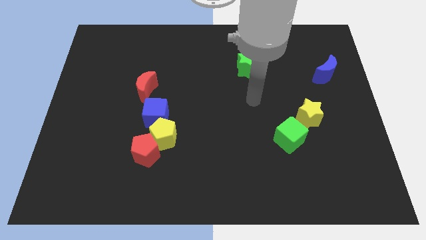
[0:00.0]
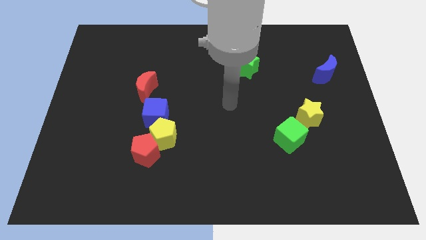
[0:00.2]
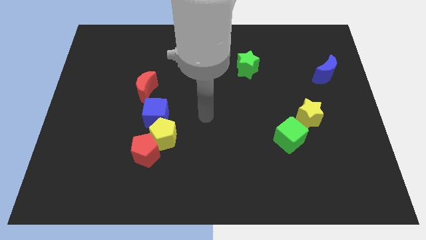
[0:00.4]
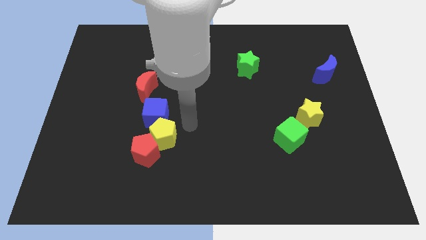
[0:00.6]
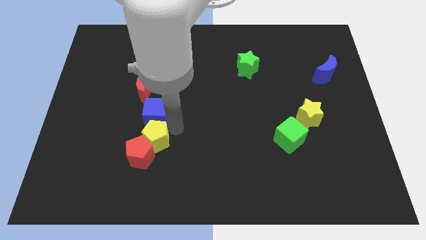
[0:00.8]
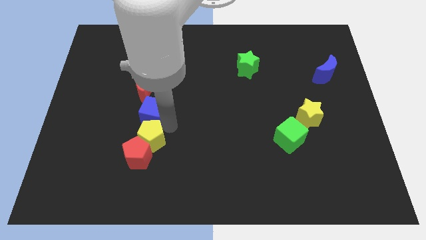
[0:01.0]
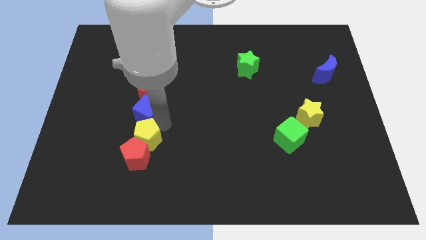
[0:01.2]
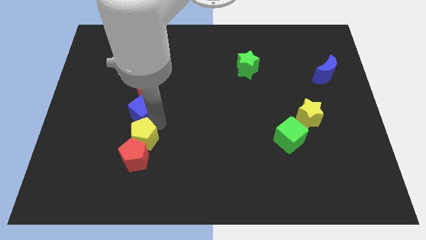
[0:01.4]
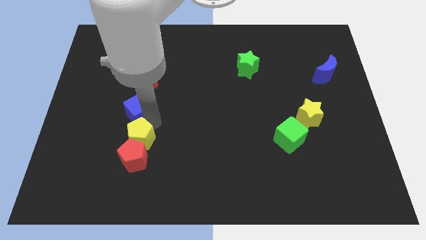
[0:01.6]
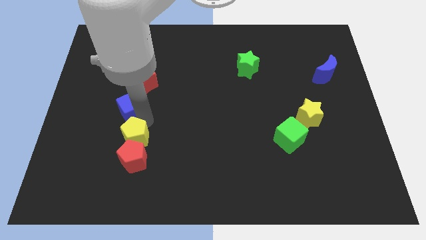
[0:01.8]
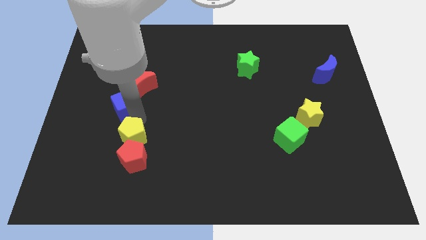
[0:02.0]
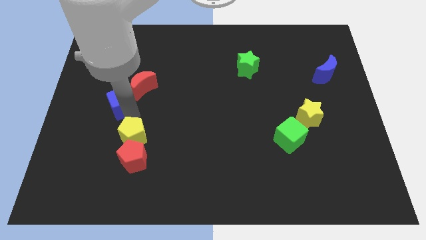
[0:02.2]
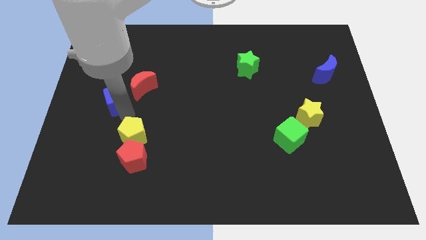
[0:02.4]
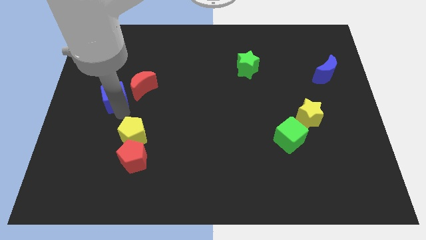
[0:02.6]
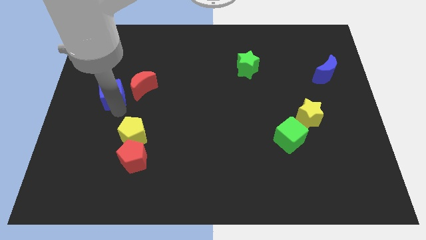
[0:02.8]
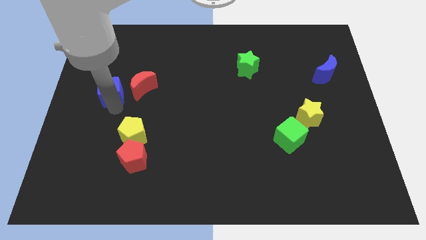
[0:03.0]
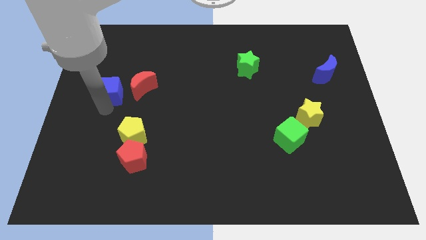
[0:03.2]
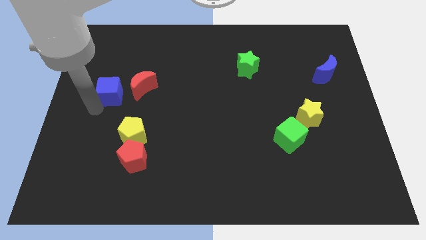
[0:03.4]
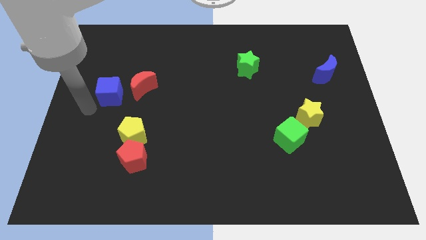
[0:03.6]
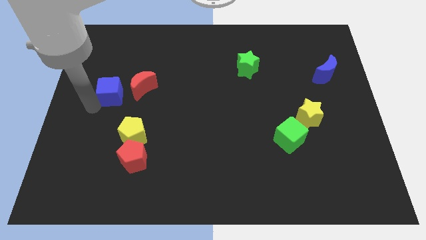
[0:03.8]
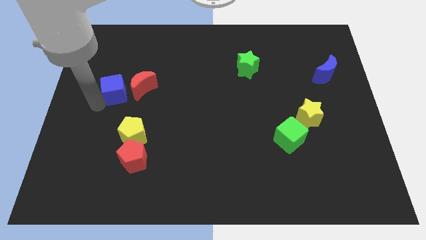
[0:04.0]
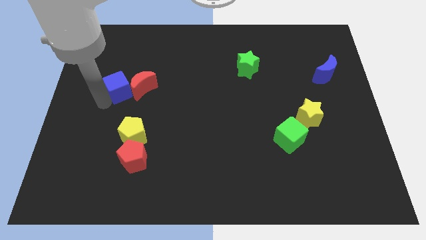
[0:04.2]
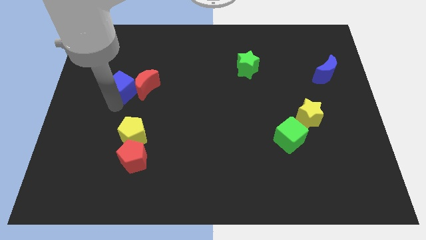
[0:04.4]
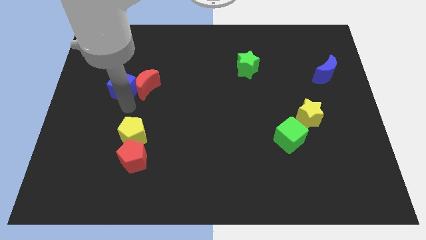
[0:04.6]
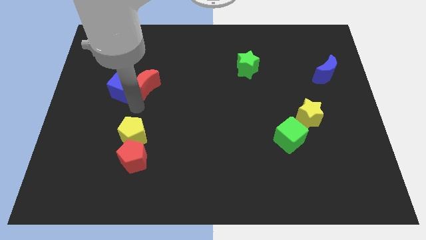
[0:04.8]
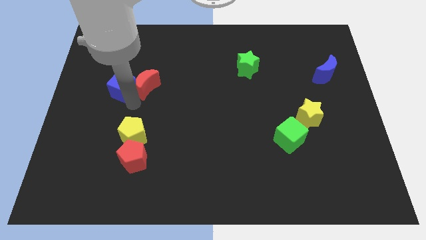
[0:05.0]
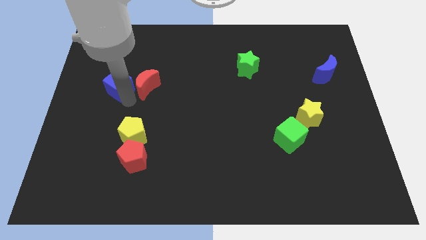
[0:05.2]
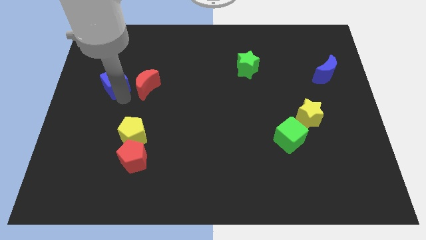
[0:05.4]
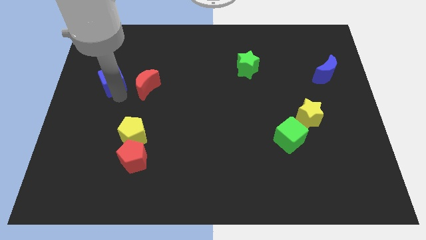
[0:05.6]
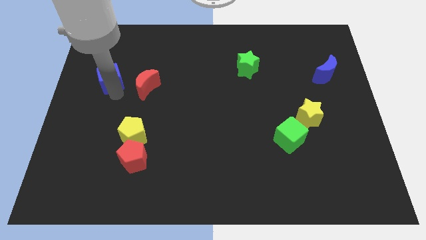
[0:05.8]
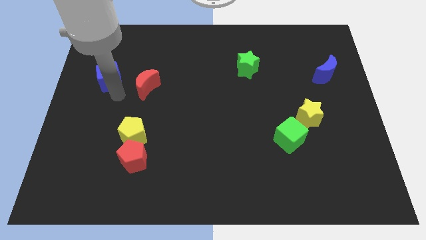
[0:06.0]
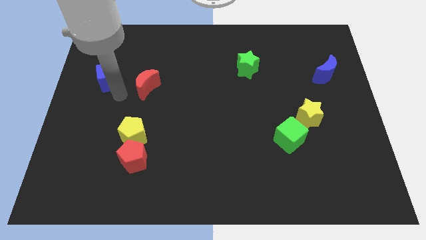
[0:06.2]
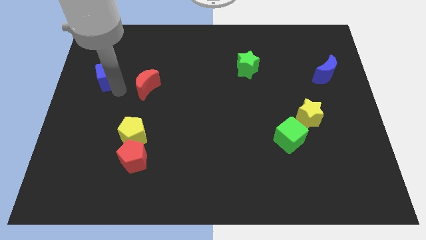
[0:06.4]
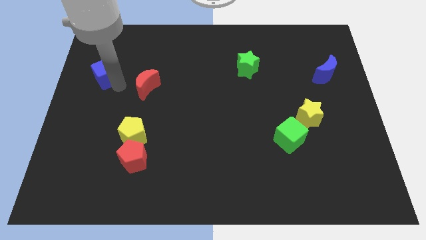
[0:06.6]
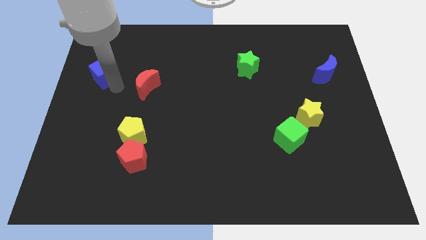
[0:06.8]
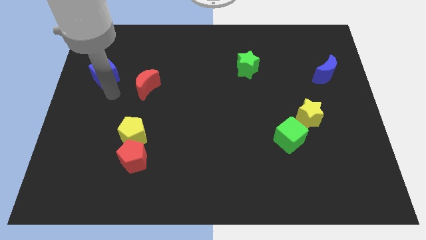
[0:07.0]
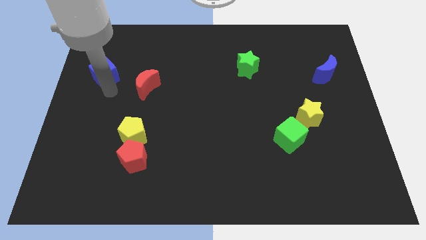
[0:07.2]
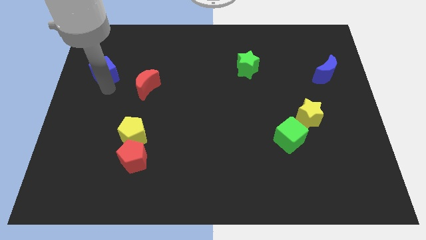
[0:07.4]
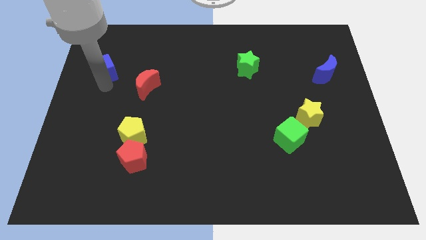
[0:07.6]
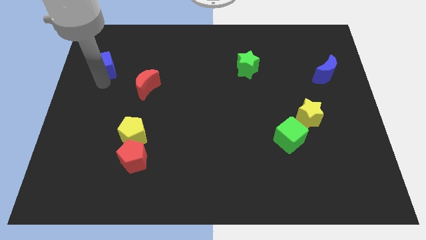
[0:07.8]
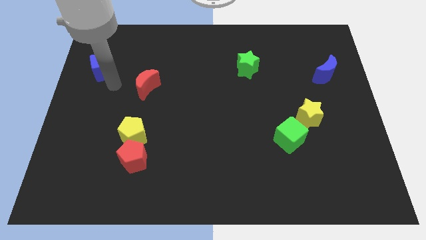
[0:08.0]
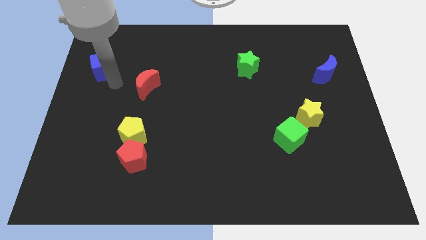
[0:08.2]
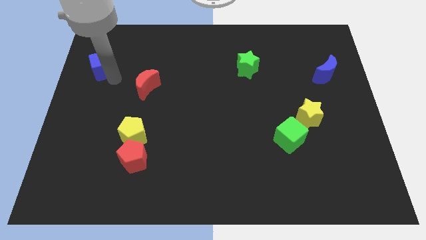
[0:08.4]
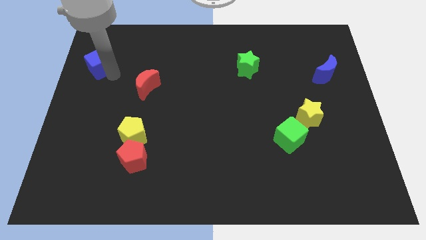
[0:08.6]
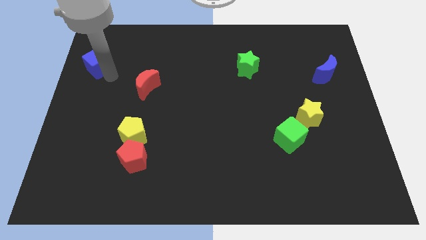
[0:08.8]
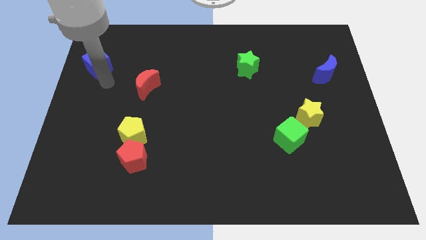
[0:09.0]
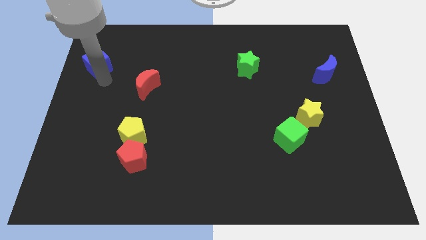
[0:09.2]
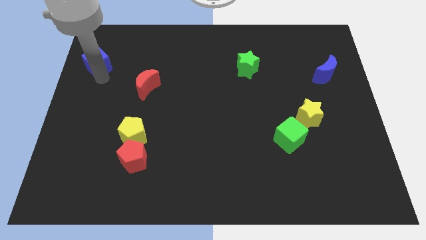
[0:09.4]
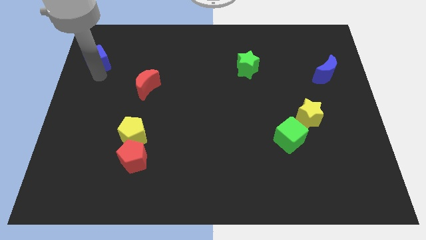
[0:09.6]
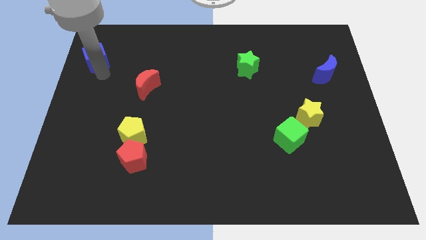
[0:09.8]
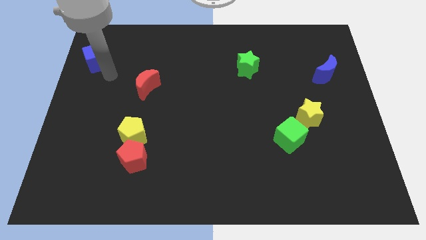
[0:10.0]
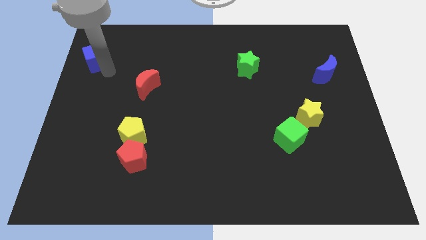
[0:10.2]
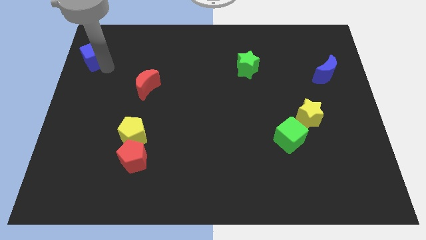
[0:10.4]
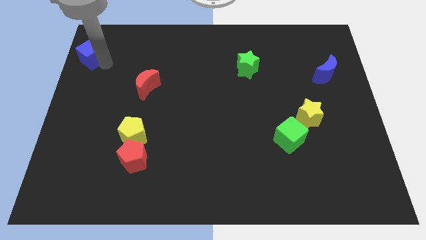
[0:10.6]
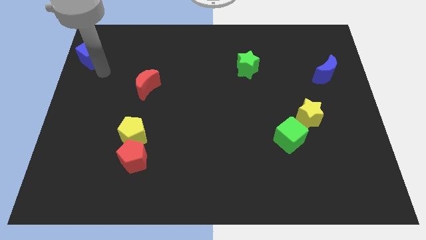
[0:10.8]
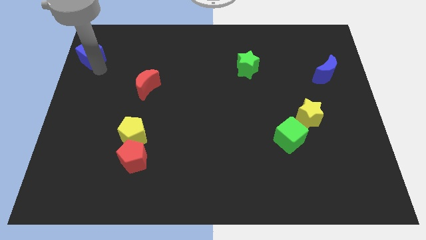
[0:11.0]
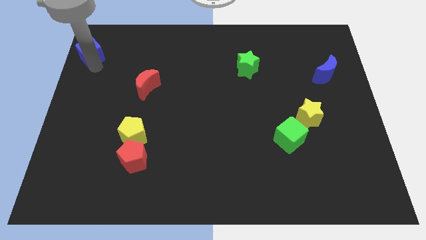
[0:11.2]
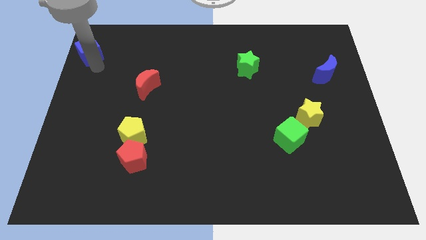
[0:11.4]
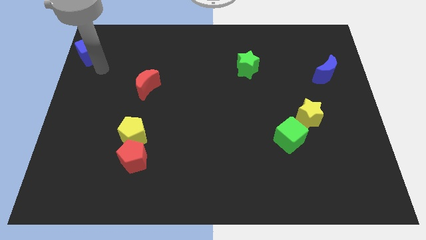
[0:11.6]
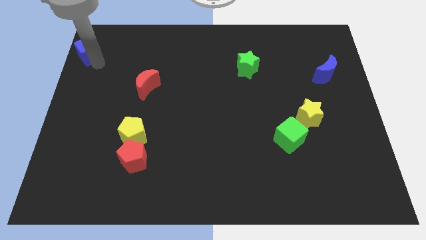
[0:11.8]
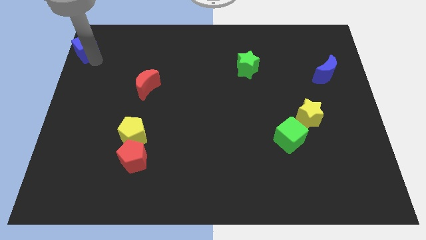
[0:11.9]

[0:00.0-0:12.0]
put the blue cube to the top left
